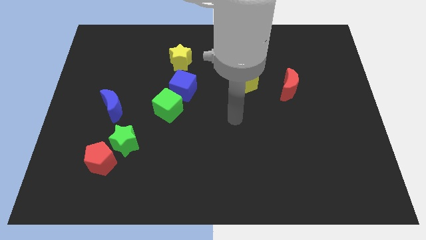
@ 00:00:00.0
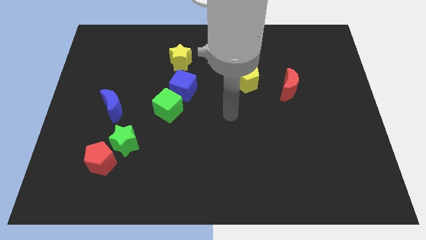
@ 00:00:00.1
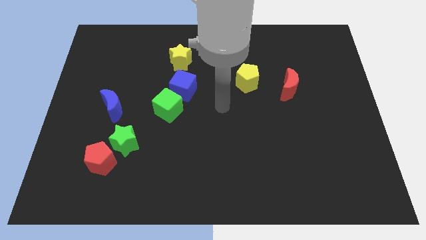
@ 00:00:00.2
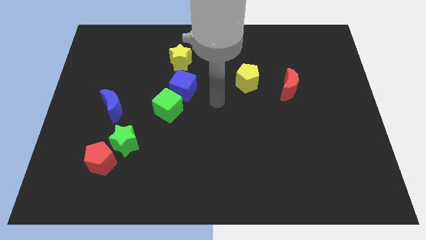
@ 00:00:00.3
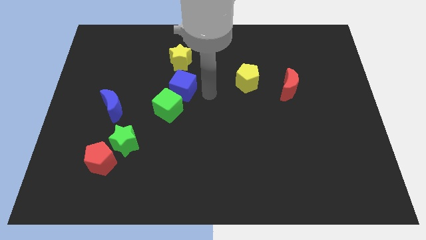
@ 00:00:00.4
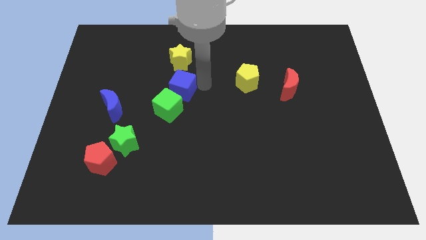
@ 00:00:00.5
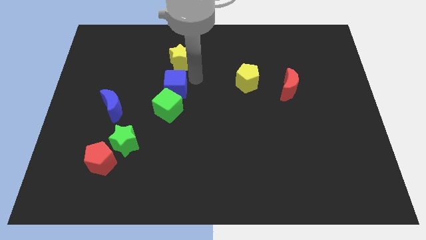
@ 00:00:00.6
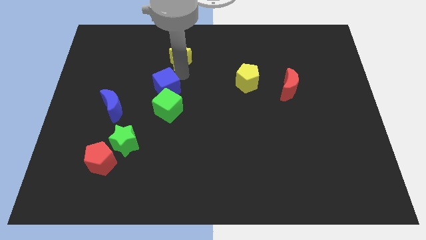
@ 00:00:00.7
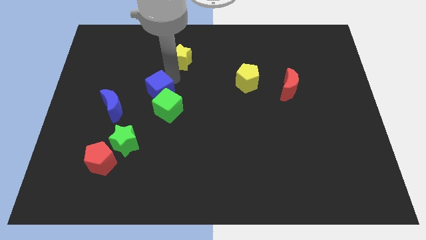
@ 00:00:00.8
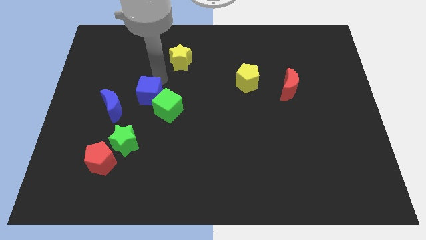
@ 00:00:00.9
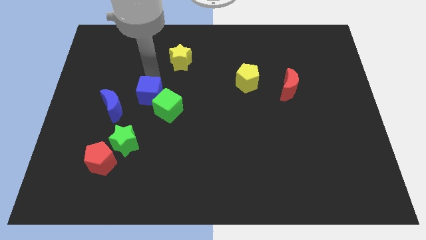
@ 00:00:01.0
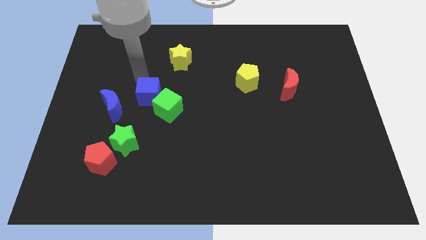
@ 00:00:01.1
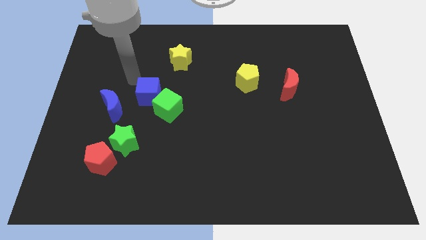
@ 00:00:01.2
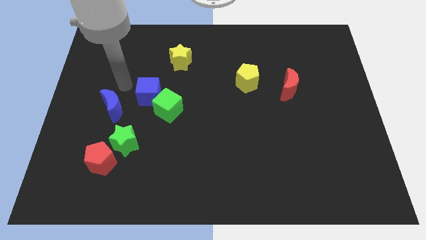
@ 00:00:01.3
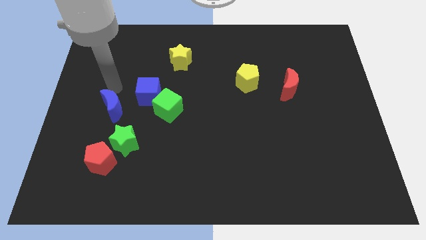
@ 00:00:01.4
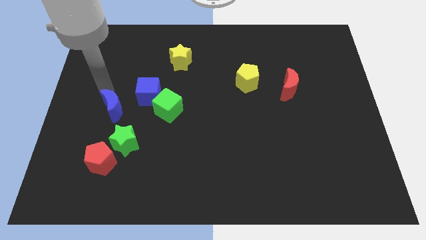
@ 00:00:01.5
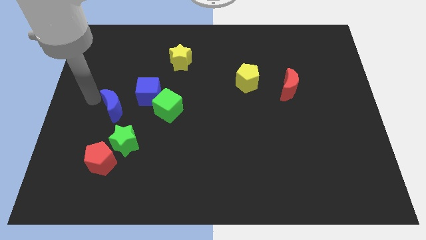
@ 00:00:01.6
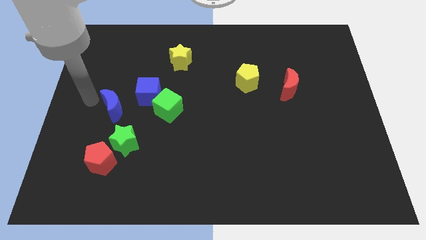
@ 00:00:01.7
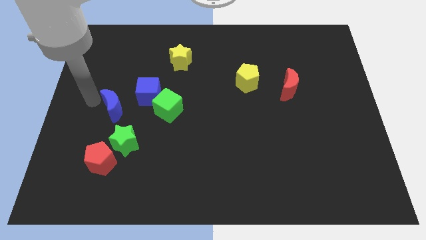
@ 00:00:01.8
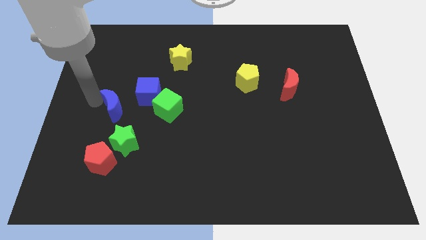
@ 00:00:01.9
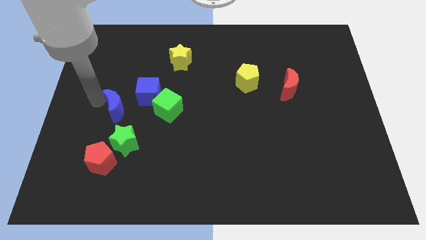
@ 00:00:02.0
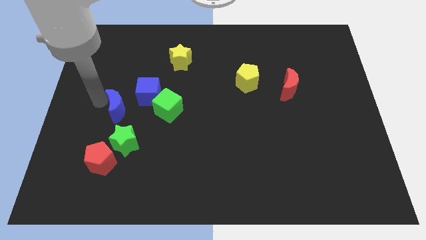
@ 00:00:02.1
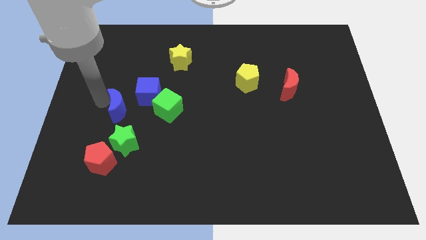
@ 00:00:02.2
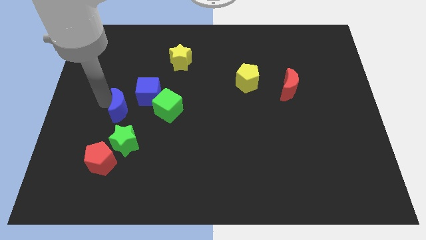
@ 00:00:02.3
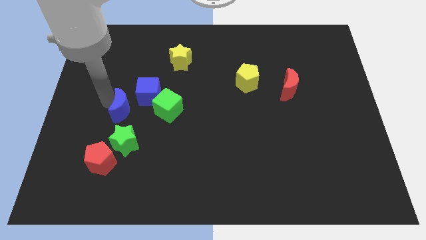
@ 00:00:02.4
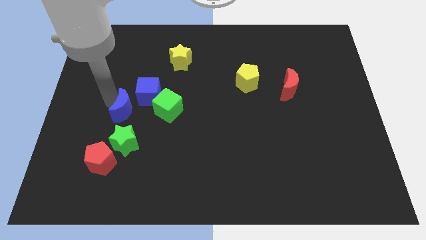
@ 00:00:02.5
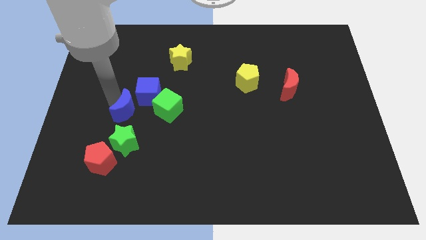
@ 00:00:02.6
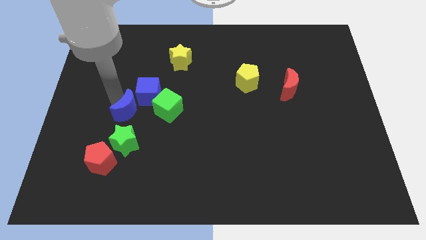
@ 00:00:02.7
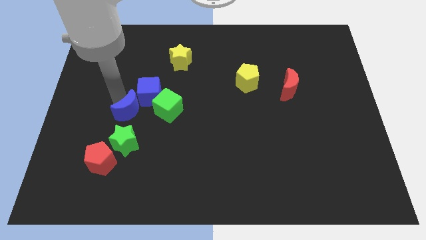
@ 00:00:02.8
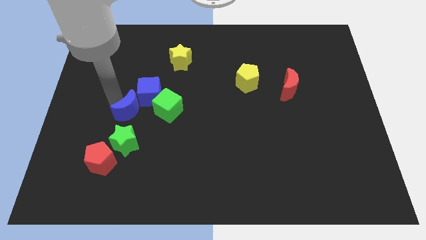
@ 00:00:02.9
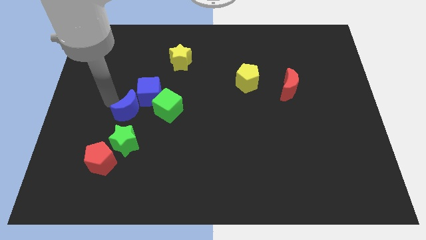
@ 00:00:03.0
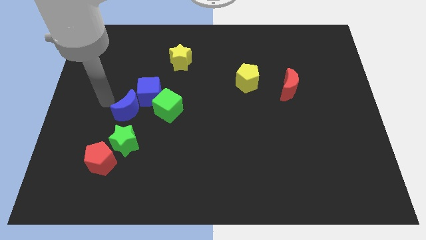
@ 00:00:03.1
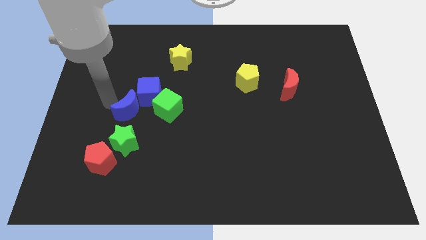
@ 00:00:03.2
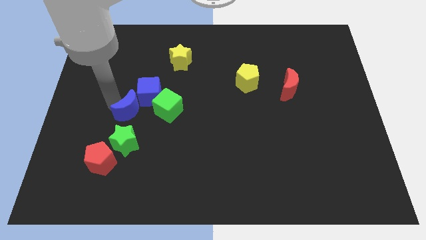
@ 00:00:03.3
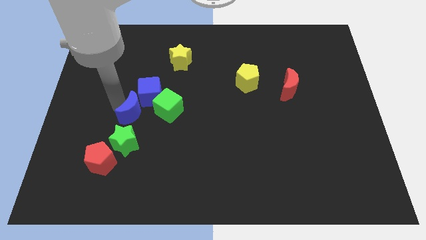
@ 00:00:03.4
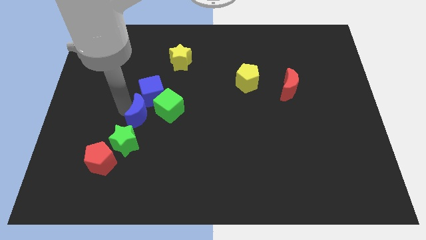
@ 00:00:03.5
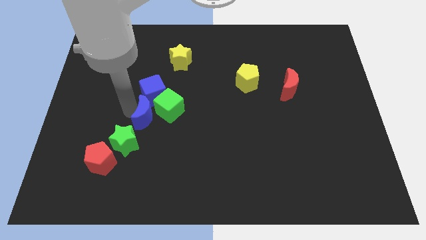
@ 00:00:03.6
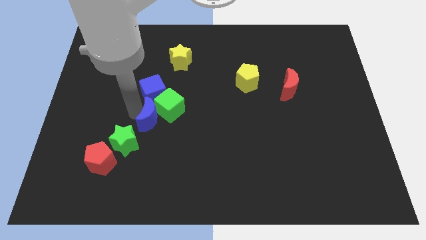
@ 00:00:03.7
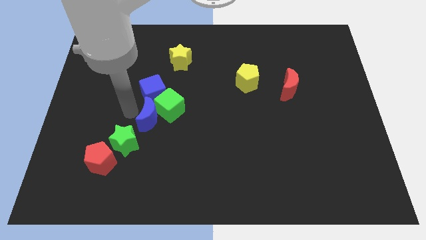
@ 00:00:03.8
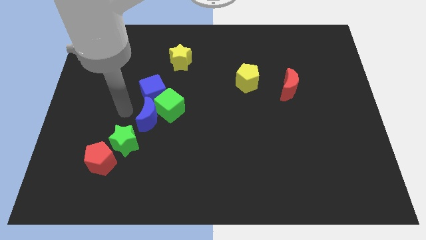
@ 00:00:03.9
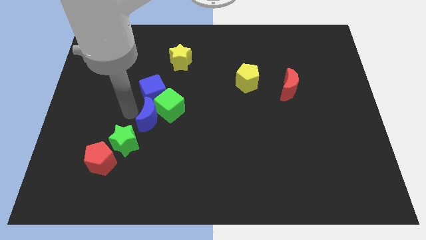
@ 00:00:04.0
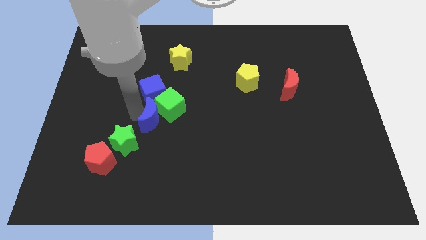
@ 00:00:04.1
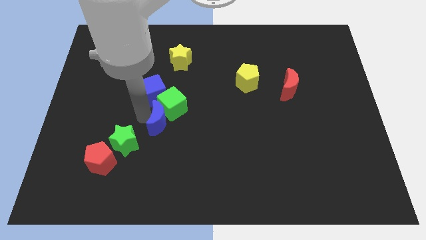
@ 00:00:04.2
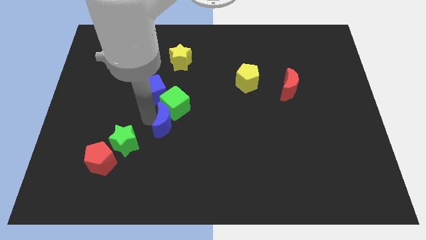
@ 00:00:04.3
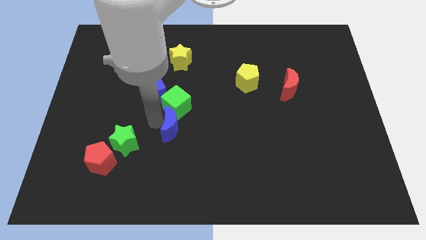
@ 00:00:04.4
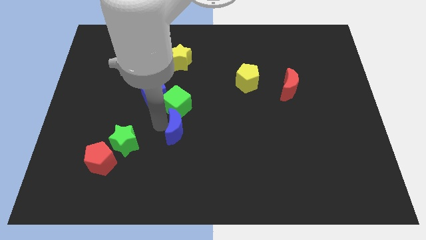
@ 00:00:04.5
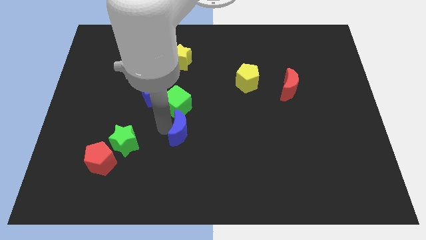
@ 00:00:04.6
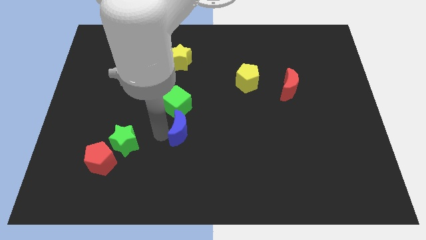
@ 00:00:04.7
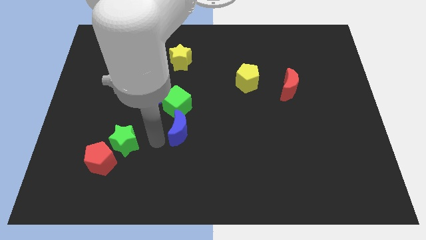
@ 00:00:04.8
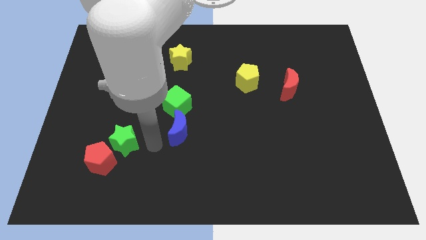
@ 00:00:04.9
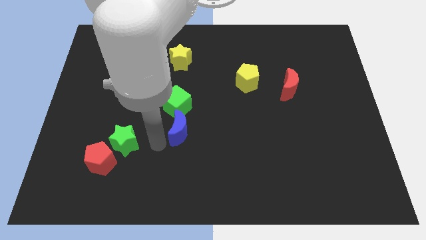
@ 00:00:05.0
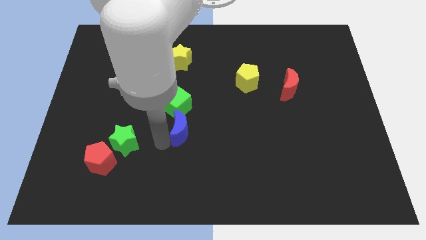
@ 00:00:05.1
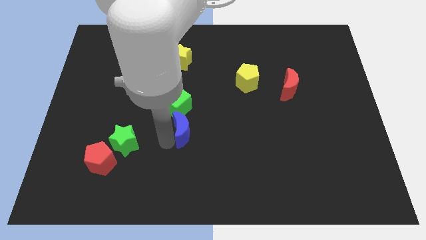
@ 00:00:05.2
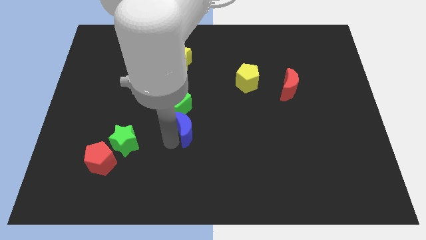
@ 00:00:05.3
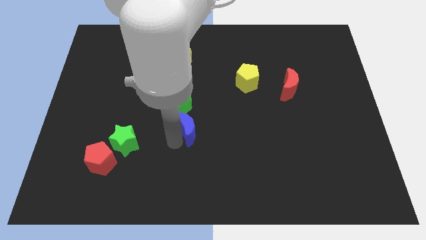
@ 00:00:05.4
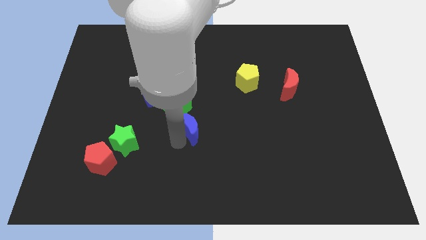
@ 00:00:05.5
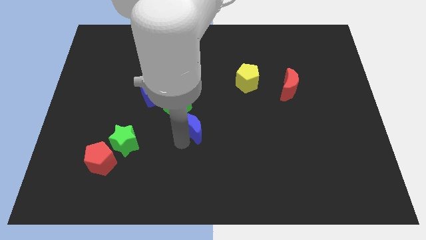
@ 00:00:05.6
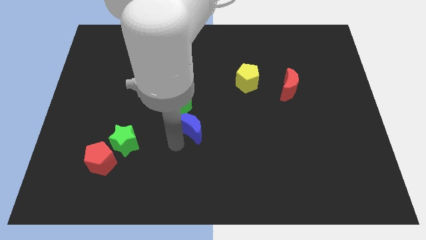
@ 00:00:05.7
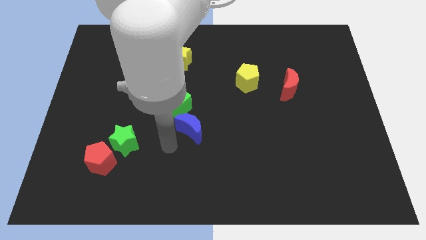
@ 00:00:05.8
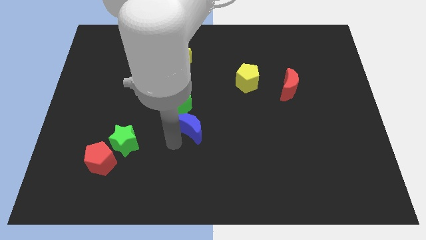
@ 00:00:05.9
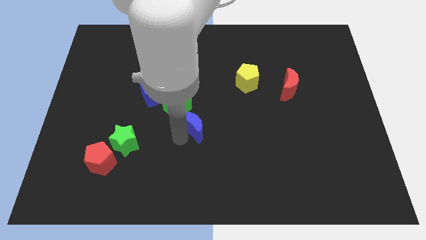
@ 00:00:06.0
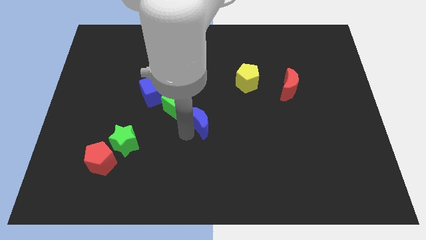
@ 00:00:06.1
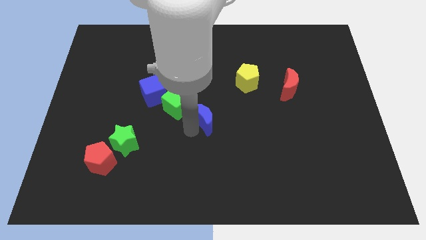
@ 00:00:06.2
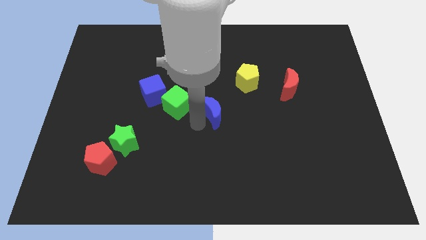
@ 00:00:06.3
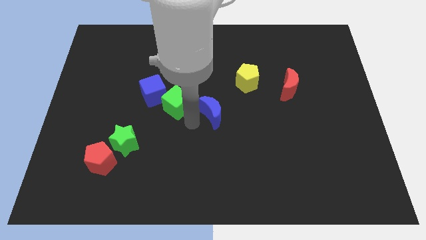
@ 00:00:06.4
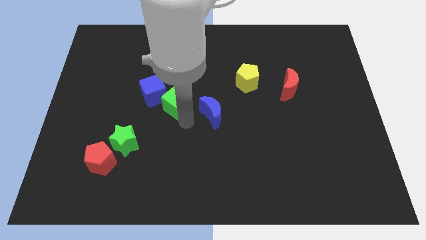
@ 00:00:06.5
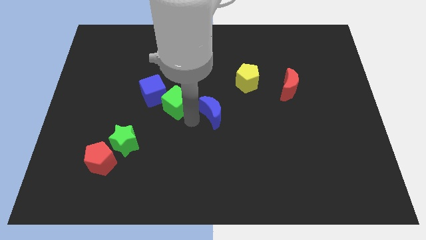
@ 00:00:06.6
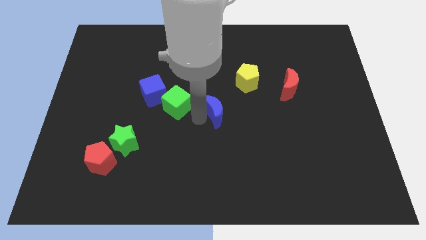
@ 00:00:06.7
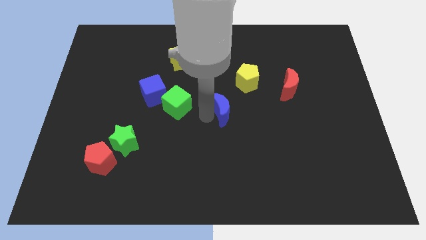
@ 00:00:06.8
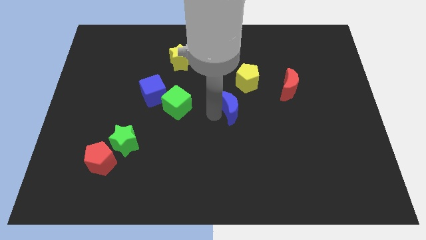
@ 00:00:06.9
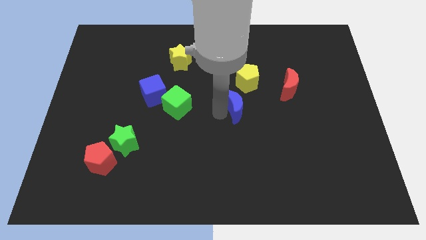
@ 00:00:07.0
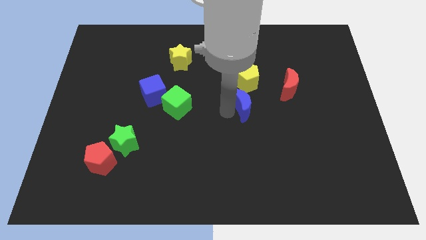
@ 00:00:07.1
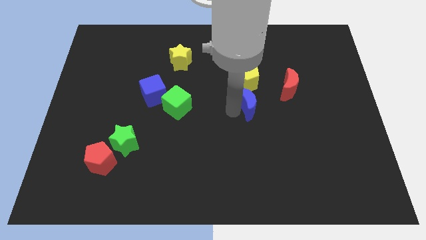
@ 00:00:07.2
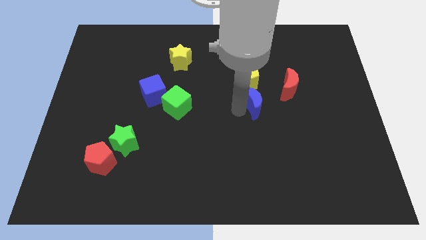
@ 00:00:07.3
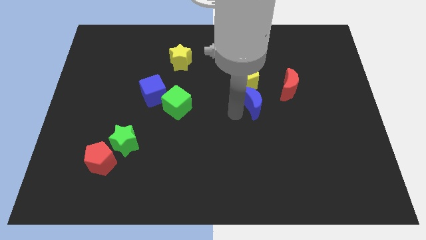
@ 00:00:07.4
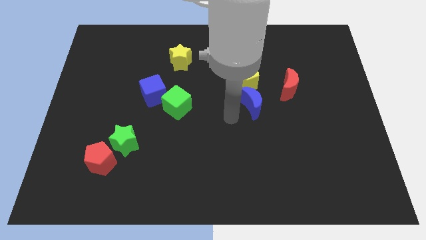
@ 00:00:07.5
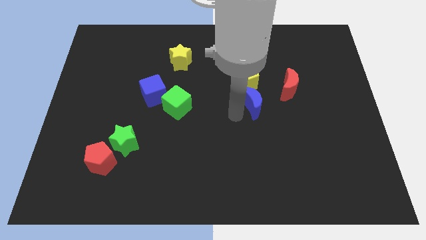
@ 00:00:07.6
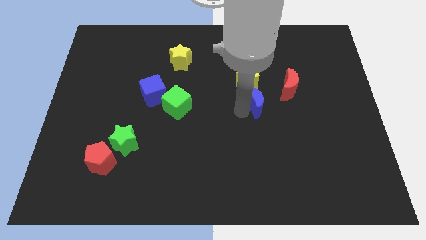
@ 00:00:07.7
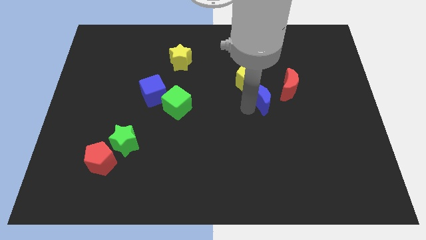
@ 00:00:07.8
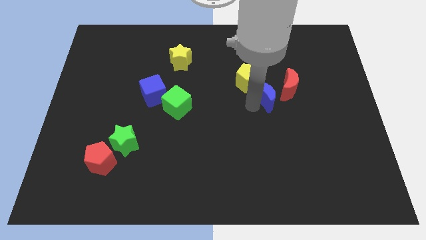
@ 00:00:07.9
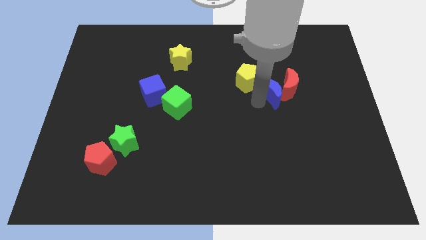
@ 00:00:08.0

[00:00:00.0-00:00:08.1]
put the blue moon towards the red moon
